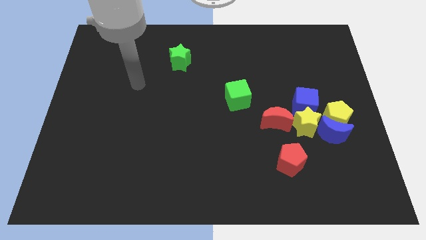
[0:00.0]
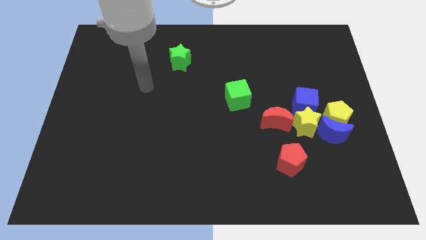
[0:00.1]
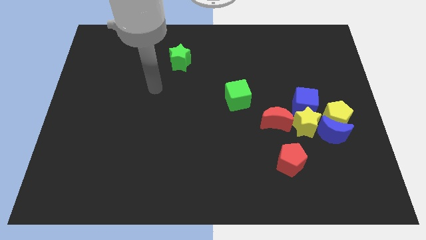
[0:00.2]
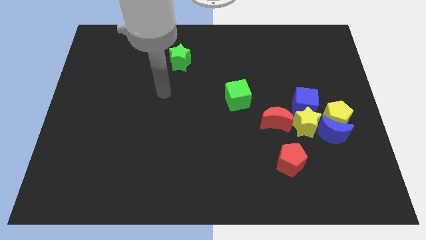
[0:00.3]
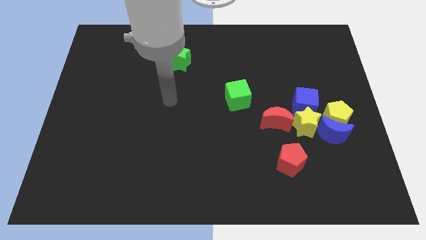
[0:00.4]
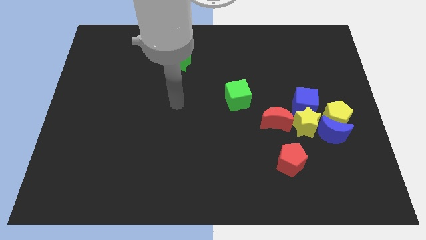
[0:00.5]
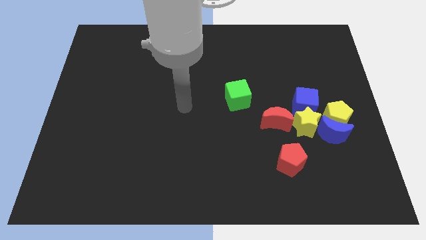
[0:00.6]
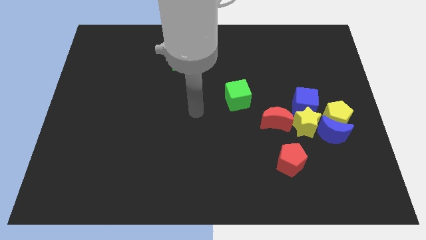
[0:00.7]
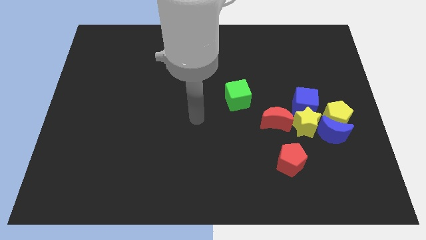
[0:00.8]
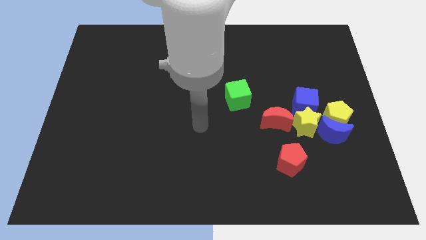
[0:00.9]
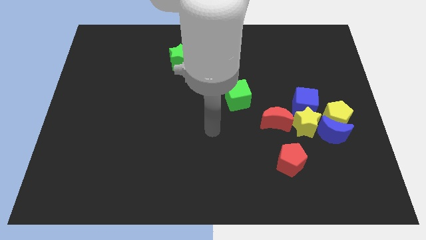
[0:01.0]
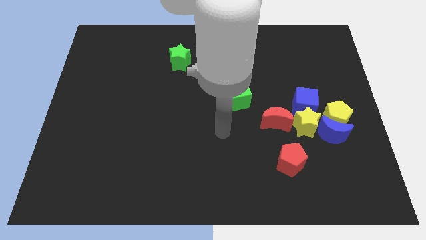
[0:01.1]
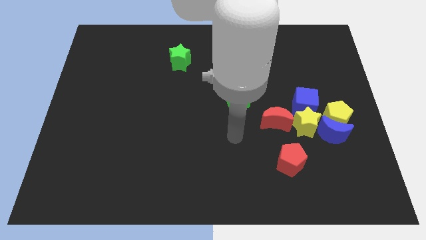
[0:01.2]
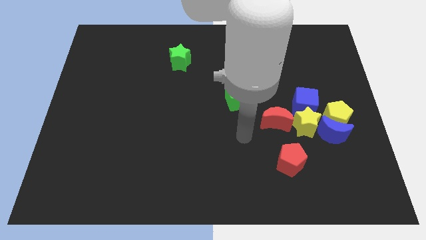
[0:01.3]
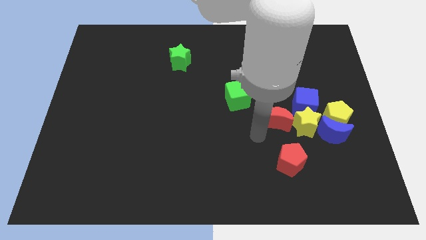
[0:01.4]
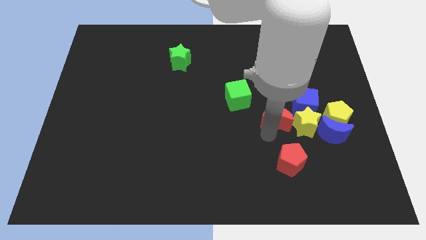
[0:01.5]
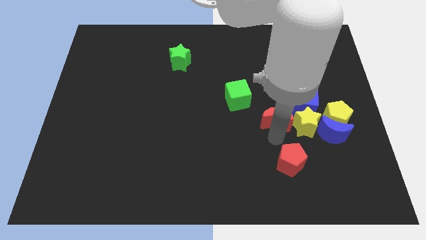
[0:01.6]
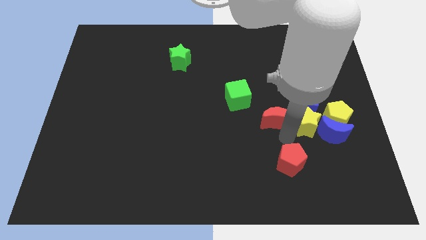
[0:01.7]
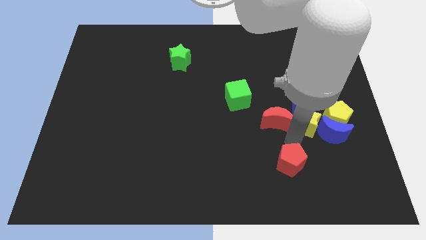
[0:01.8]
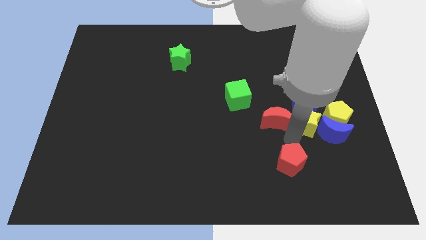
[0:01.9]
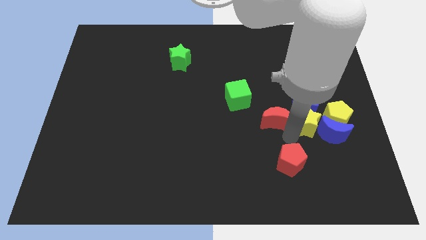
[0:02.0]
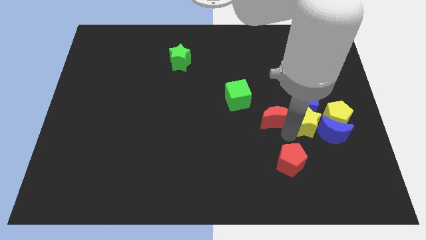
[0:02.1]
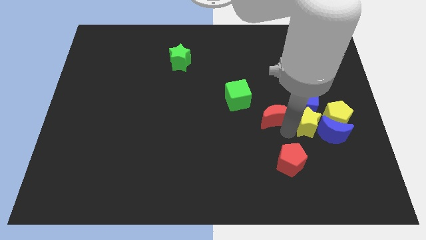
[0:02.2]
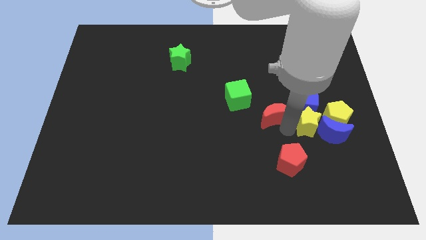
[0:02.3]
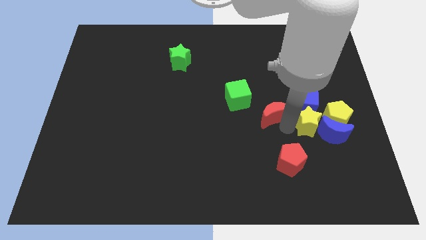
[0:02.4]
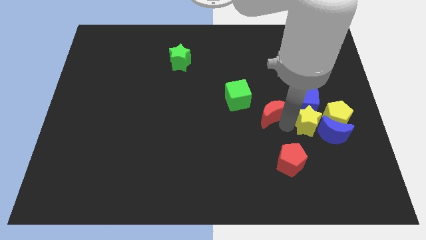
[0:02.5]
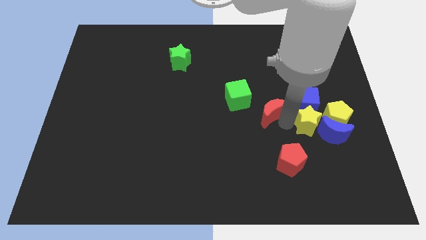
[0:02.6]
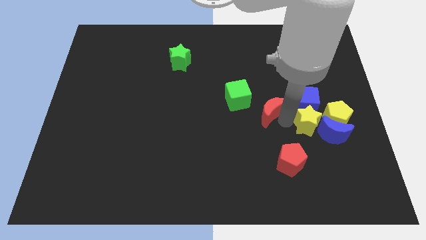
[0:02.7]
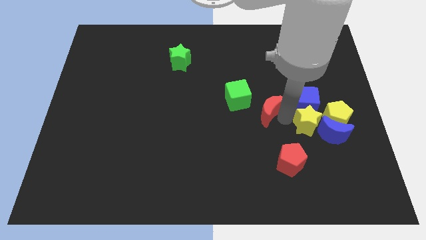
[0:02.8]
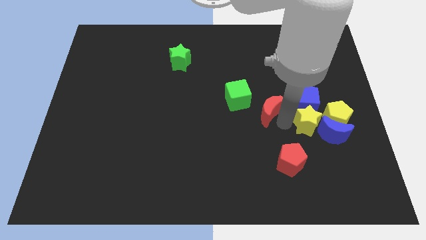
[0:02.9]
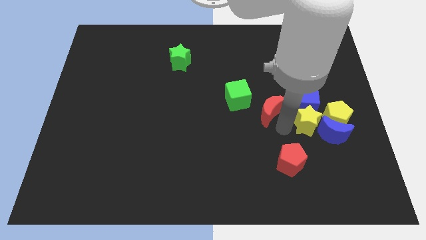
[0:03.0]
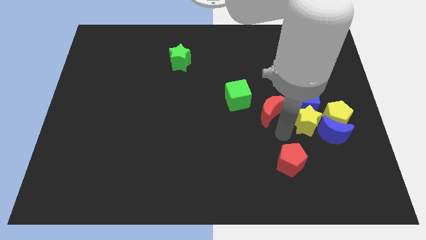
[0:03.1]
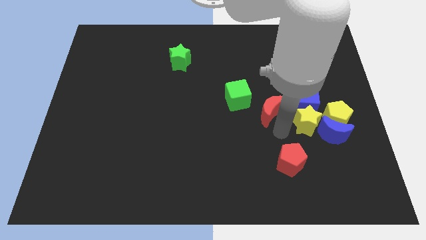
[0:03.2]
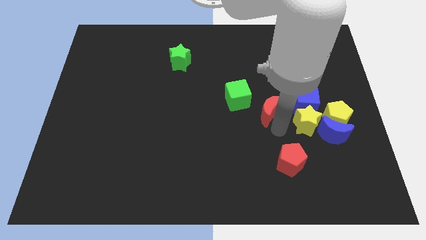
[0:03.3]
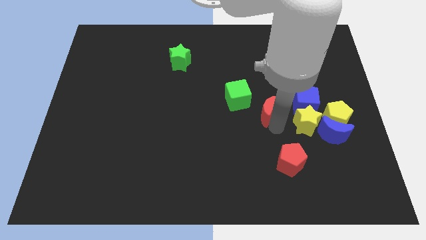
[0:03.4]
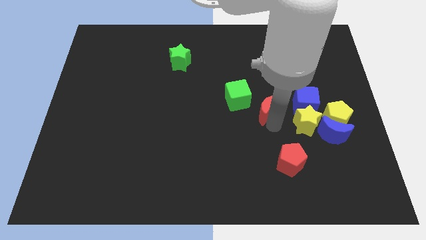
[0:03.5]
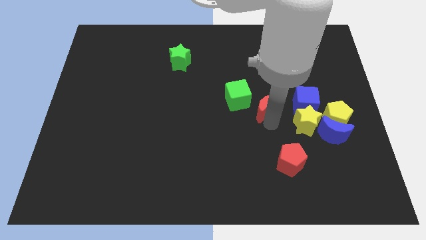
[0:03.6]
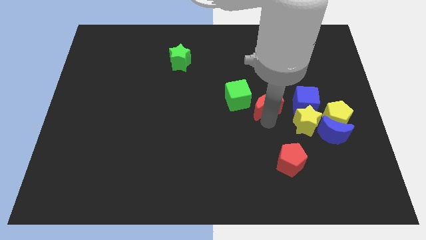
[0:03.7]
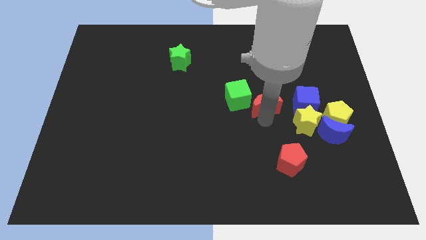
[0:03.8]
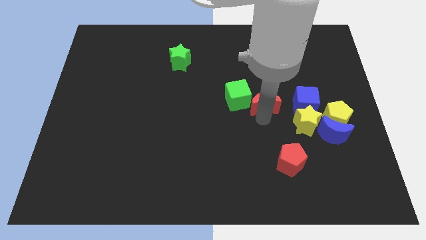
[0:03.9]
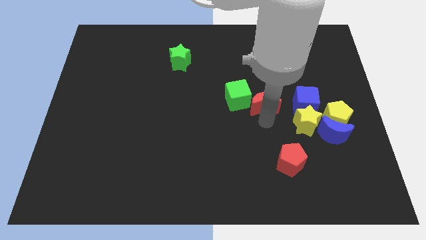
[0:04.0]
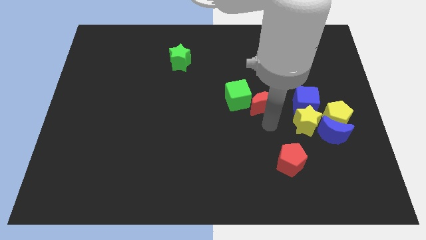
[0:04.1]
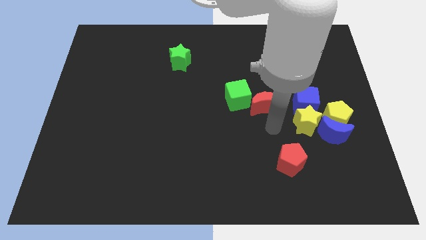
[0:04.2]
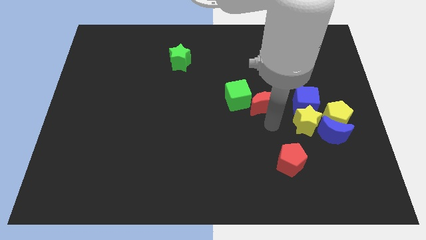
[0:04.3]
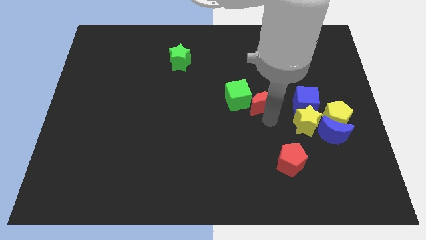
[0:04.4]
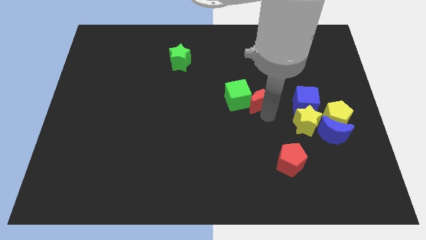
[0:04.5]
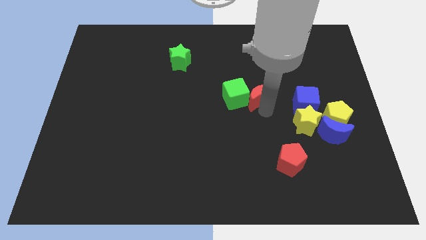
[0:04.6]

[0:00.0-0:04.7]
push the red moon diagonally upwards and to the left a little bit

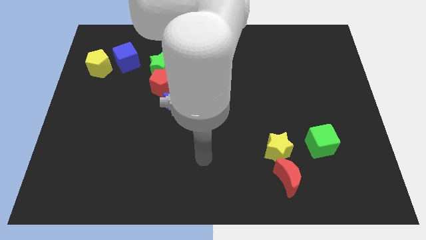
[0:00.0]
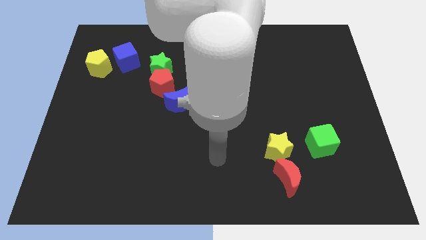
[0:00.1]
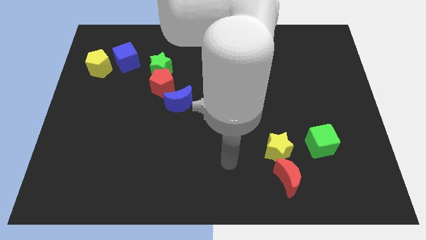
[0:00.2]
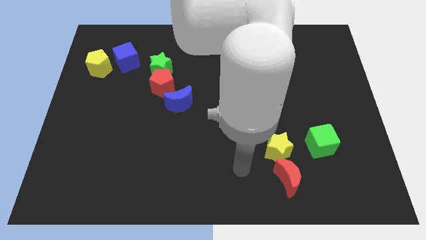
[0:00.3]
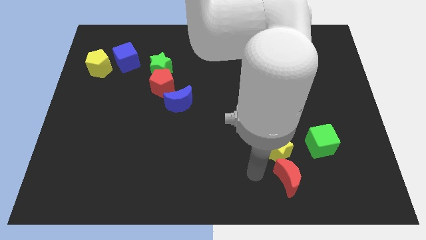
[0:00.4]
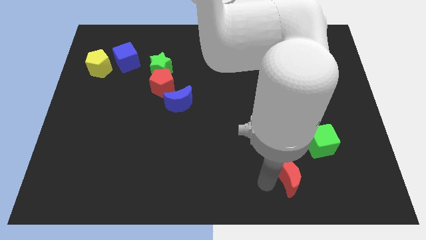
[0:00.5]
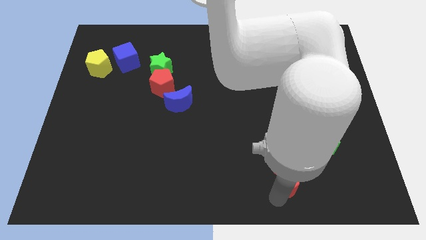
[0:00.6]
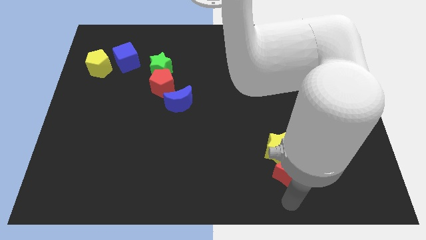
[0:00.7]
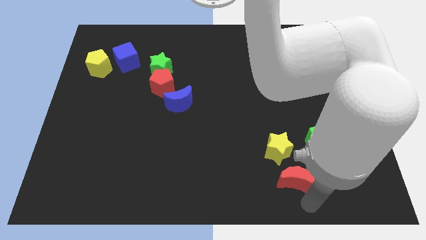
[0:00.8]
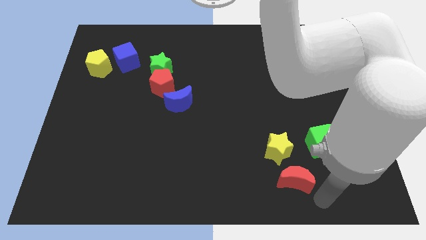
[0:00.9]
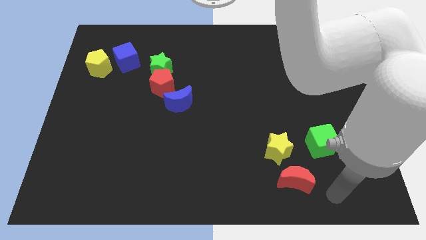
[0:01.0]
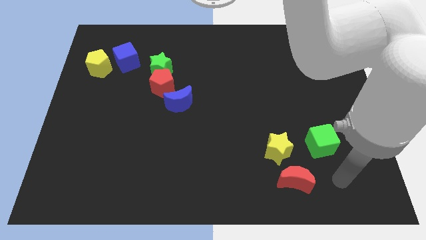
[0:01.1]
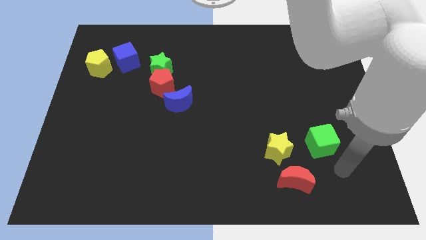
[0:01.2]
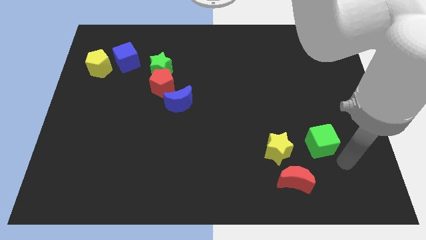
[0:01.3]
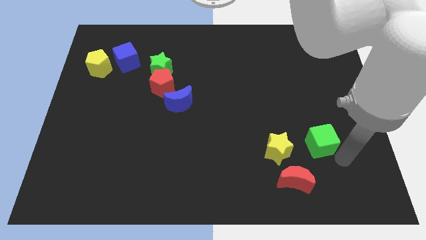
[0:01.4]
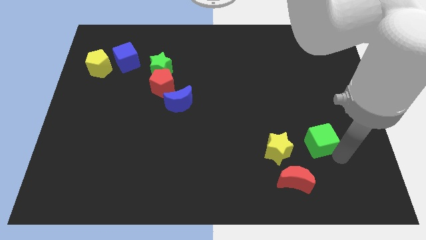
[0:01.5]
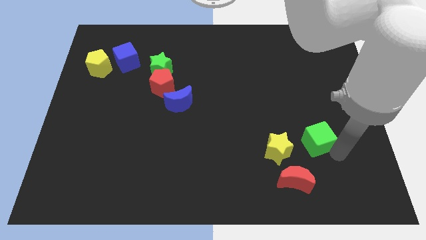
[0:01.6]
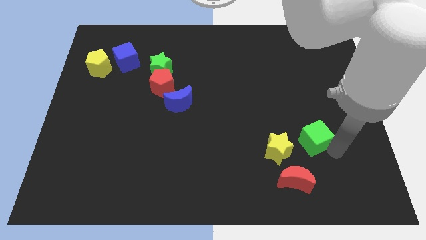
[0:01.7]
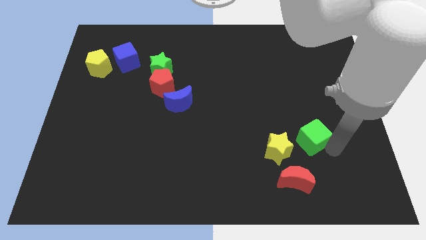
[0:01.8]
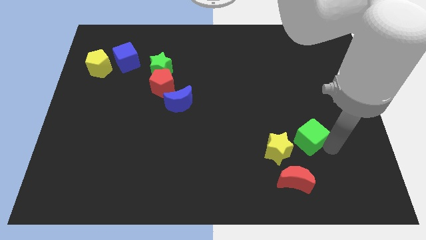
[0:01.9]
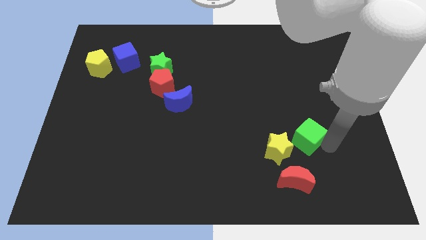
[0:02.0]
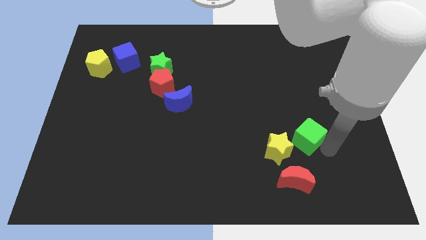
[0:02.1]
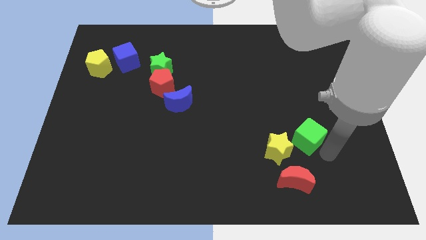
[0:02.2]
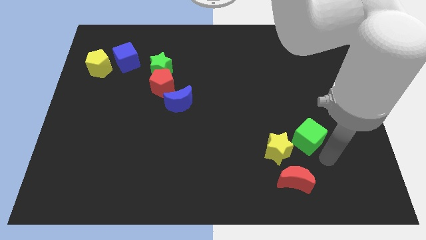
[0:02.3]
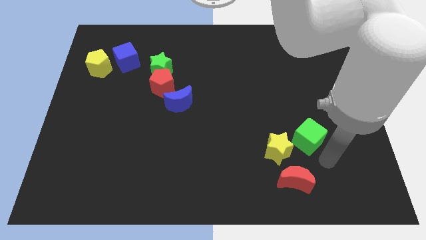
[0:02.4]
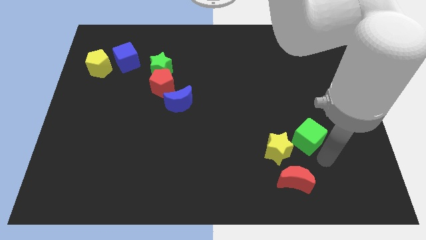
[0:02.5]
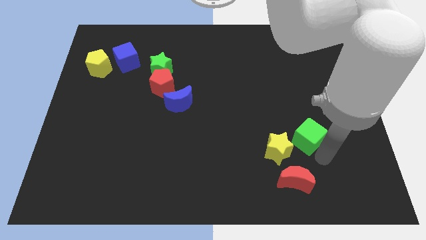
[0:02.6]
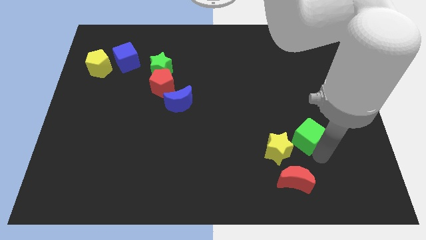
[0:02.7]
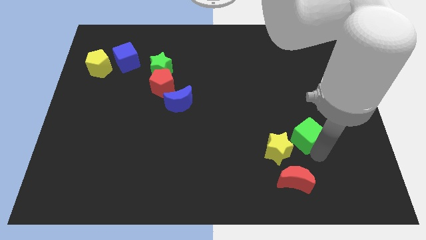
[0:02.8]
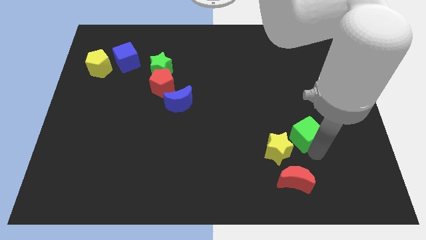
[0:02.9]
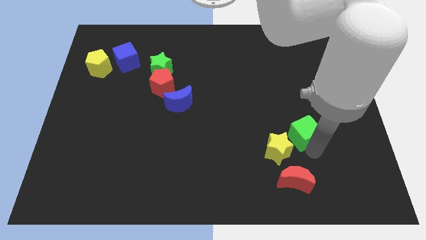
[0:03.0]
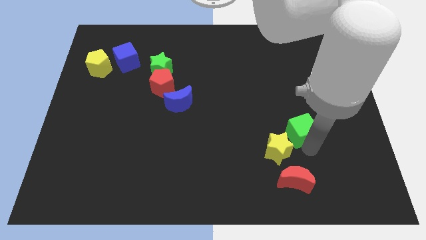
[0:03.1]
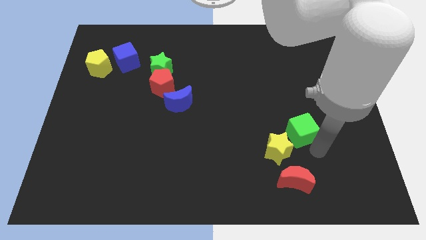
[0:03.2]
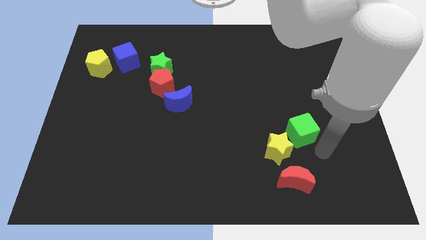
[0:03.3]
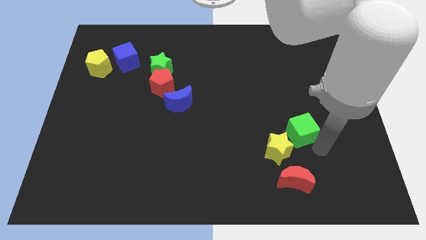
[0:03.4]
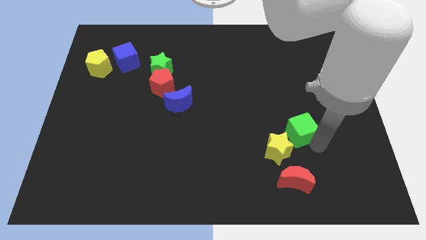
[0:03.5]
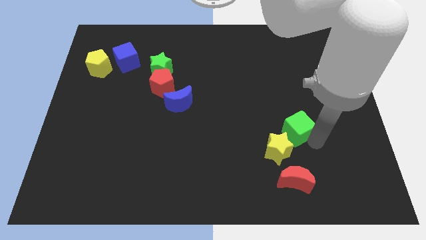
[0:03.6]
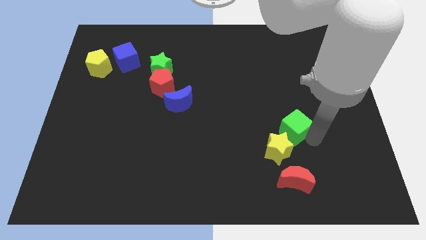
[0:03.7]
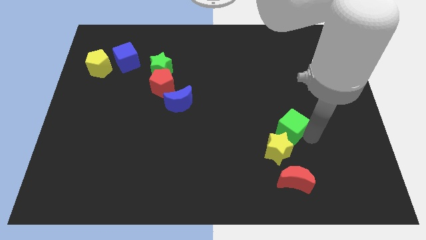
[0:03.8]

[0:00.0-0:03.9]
slightly push the green cube upwards and to the left diagonally
